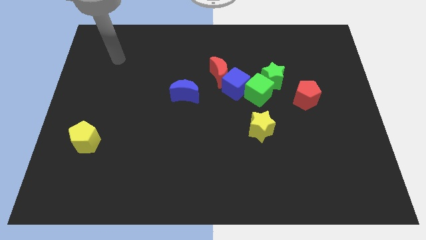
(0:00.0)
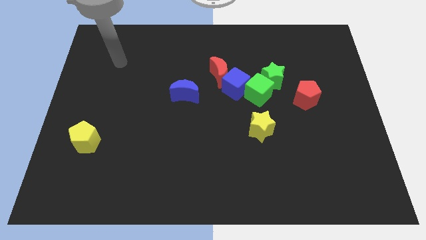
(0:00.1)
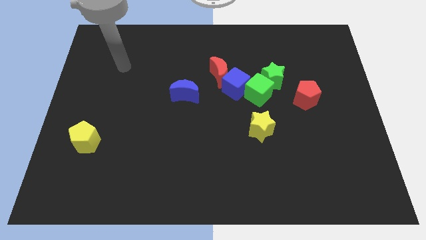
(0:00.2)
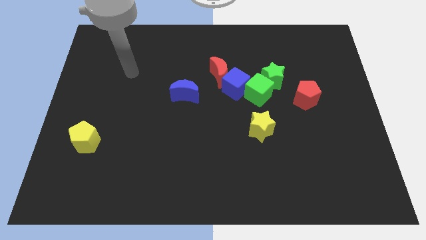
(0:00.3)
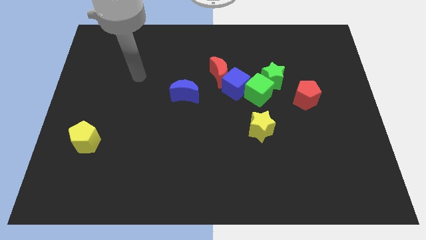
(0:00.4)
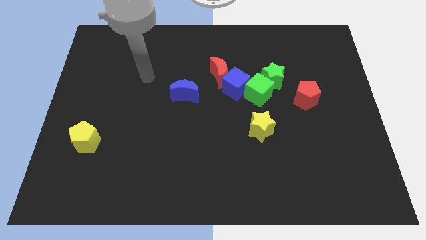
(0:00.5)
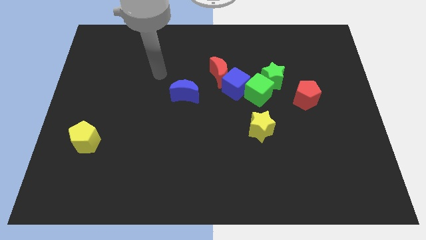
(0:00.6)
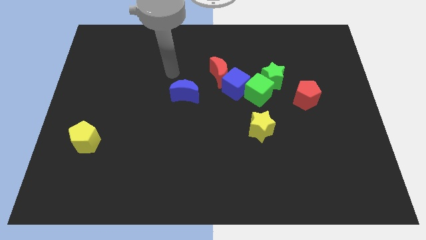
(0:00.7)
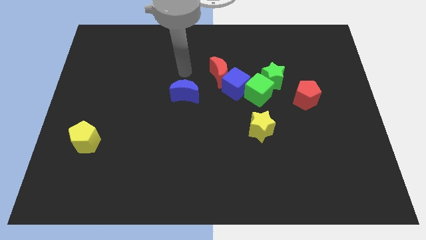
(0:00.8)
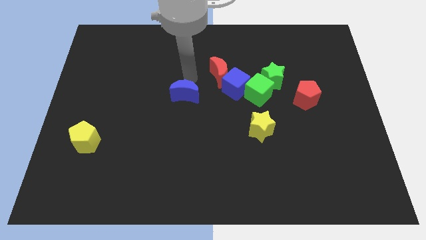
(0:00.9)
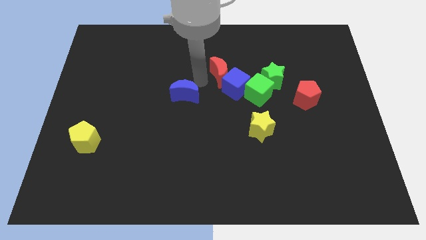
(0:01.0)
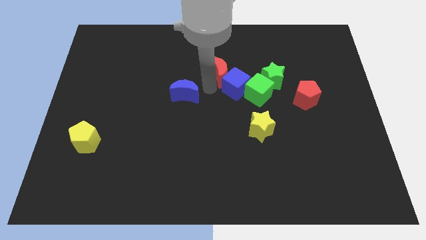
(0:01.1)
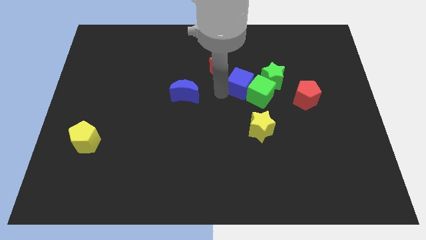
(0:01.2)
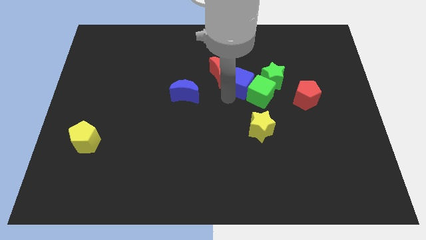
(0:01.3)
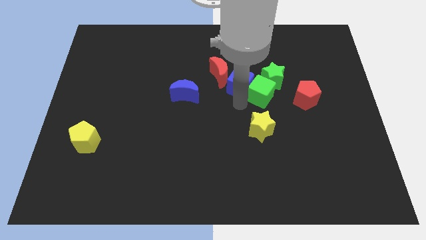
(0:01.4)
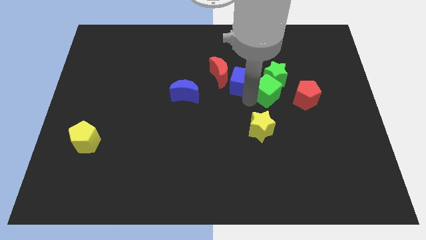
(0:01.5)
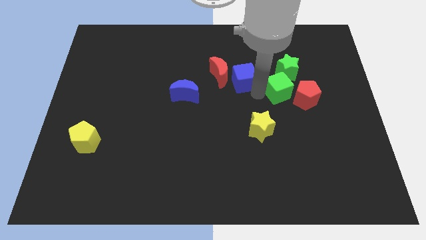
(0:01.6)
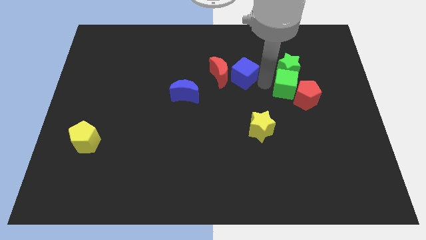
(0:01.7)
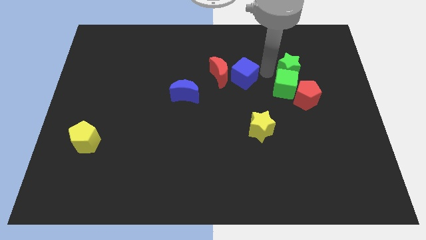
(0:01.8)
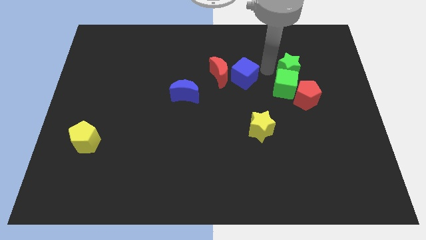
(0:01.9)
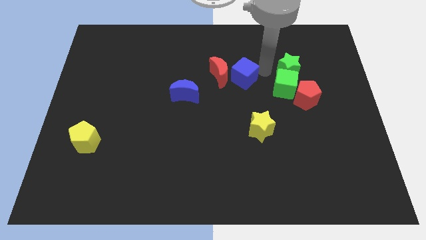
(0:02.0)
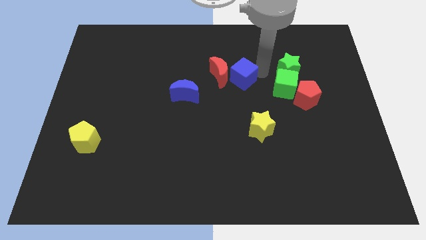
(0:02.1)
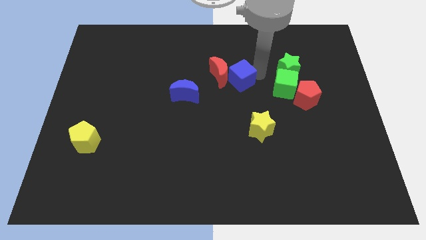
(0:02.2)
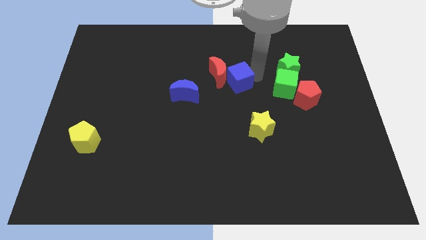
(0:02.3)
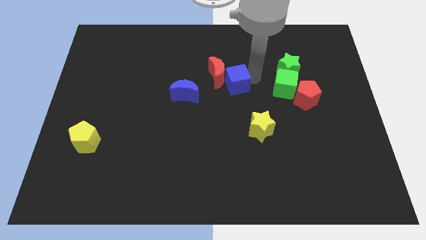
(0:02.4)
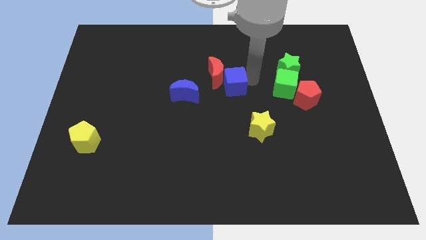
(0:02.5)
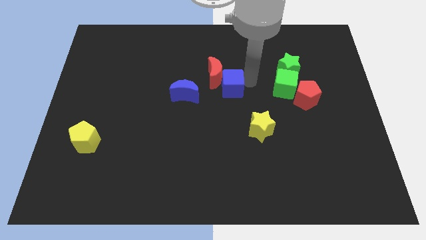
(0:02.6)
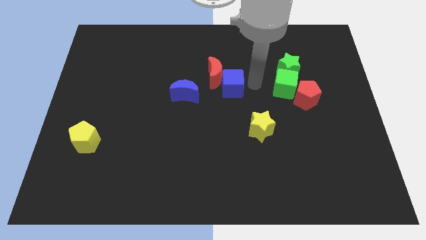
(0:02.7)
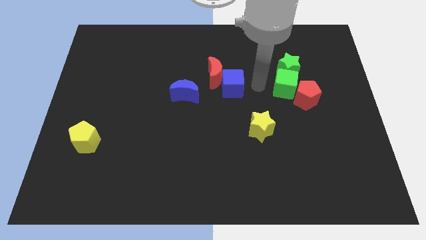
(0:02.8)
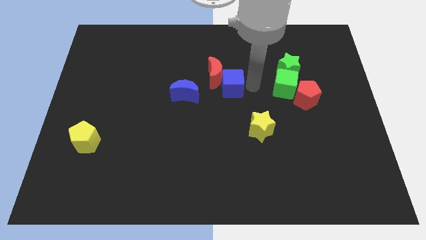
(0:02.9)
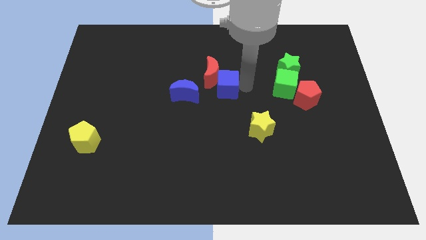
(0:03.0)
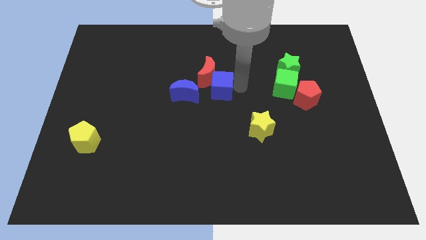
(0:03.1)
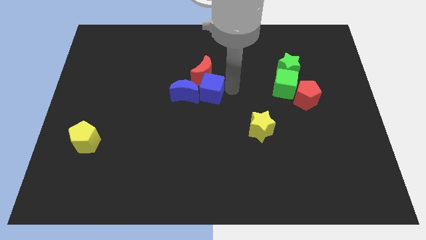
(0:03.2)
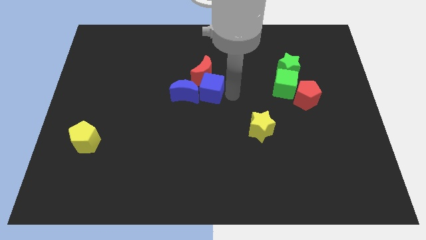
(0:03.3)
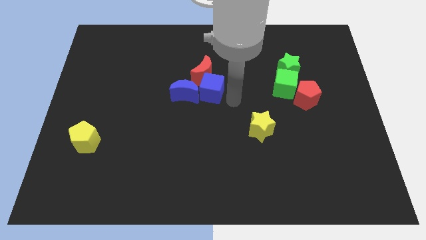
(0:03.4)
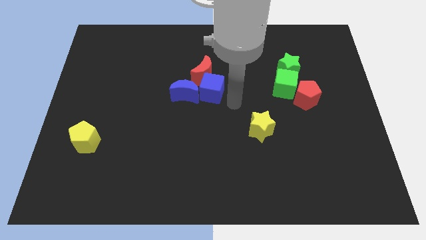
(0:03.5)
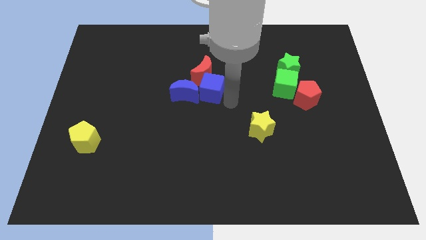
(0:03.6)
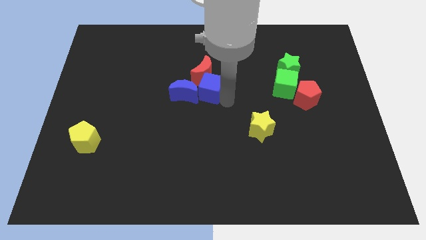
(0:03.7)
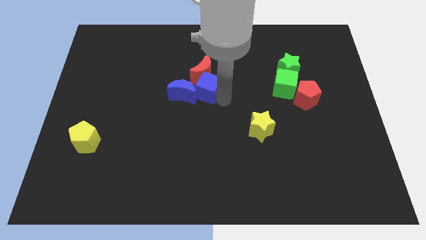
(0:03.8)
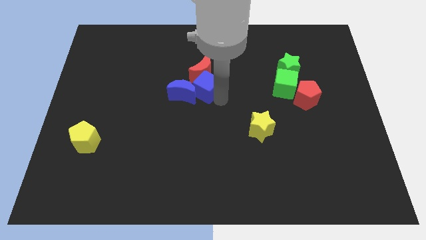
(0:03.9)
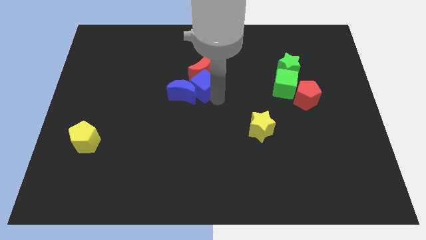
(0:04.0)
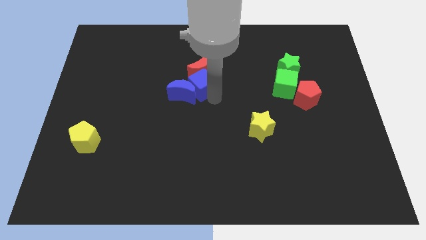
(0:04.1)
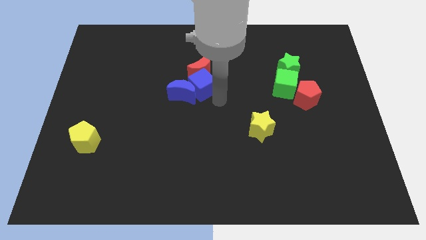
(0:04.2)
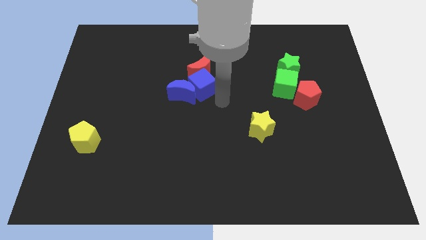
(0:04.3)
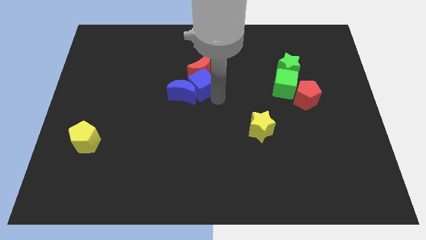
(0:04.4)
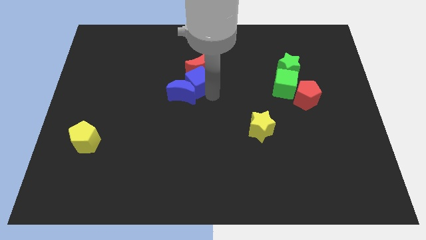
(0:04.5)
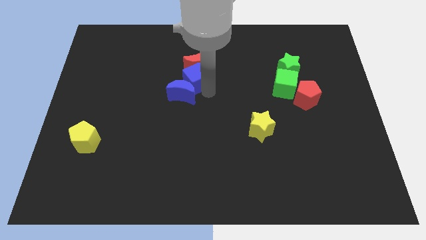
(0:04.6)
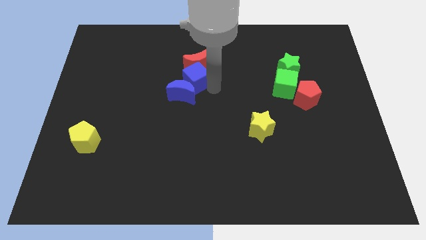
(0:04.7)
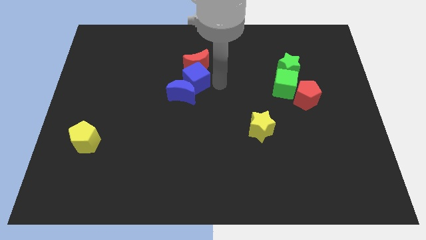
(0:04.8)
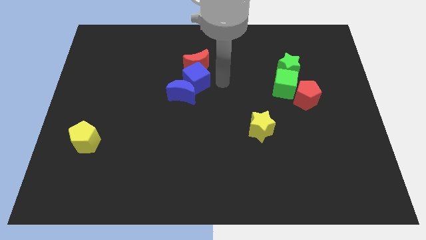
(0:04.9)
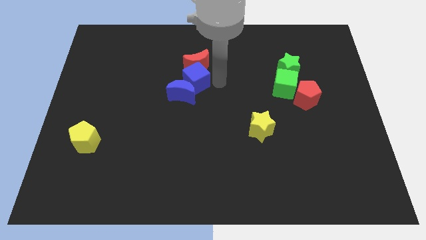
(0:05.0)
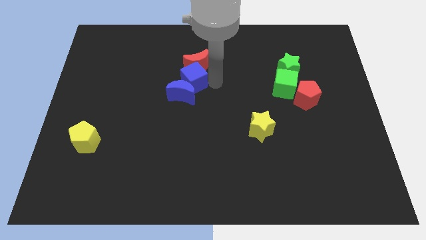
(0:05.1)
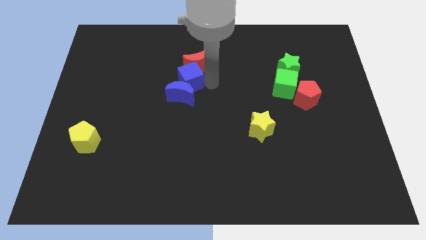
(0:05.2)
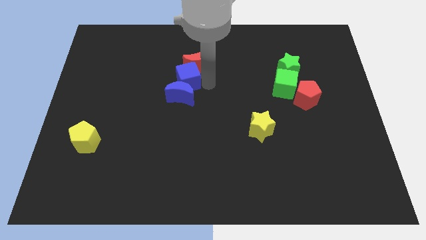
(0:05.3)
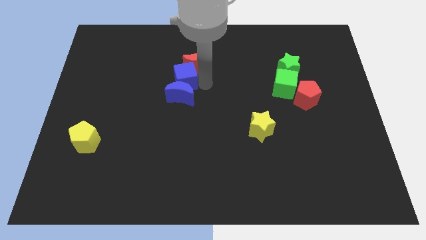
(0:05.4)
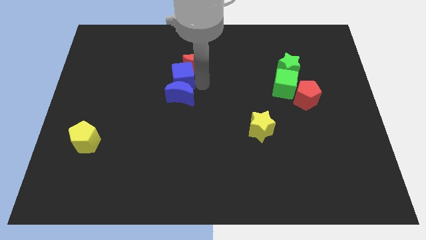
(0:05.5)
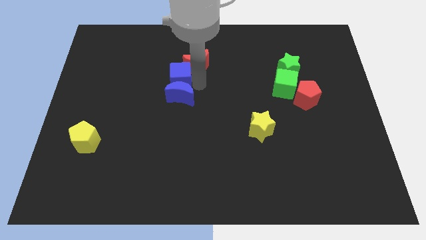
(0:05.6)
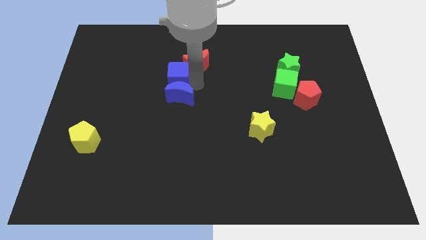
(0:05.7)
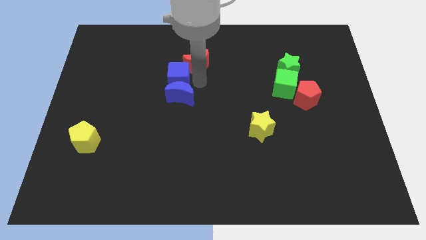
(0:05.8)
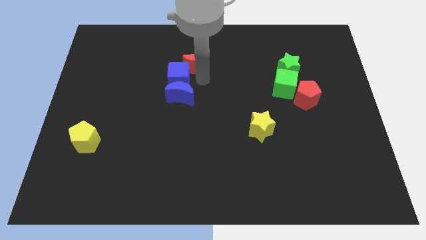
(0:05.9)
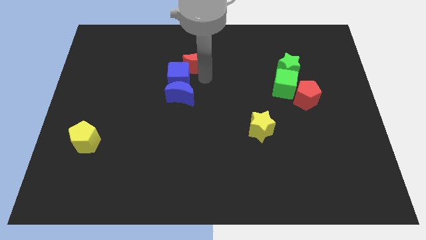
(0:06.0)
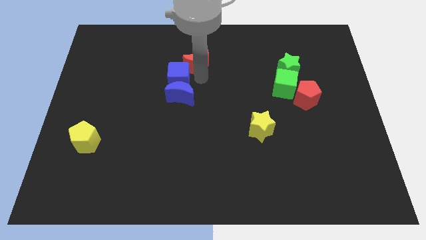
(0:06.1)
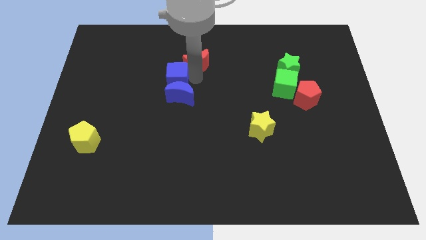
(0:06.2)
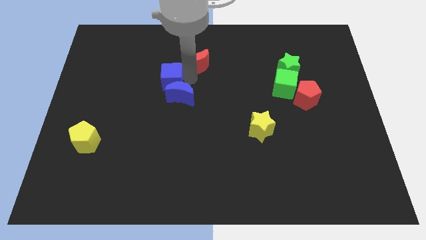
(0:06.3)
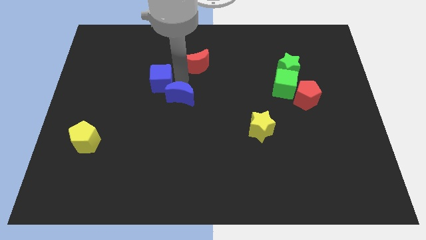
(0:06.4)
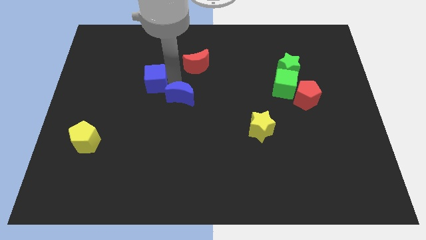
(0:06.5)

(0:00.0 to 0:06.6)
slide the blue cube to the left

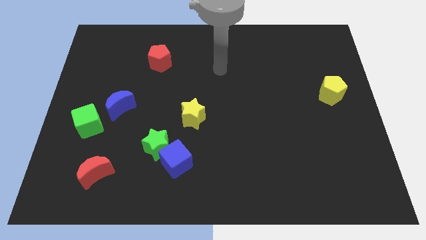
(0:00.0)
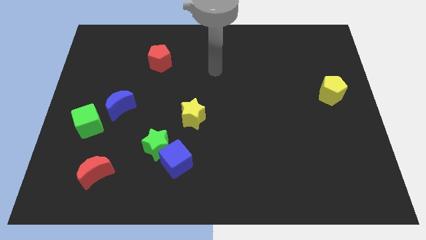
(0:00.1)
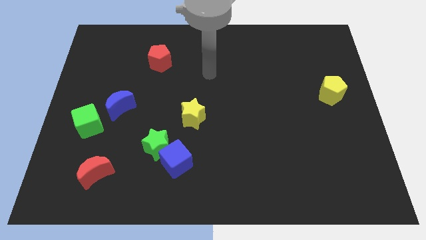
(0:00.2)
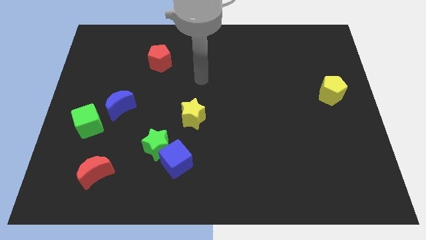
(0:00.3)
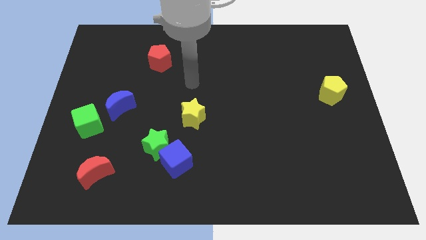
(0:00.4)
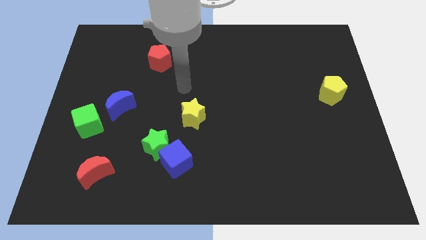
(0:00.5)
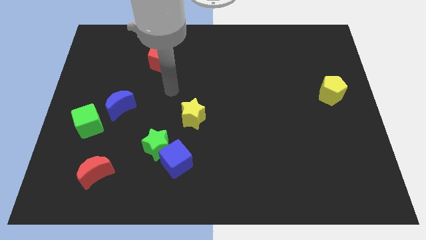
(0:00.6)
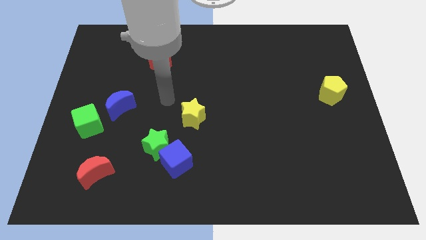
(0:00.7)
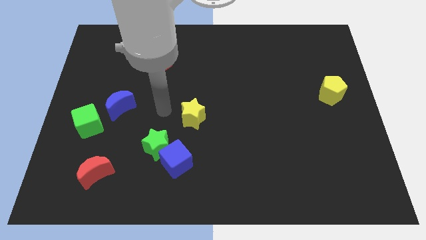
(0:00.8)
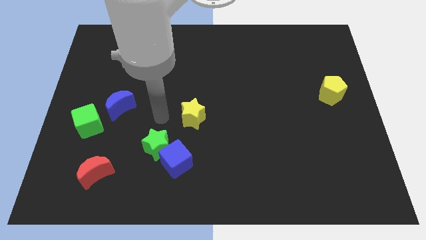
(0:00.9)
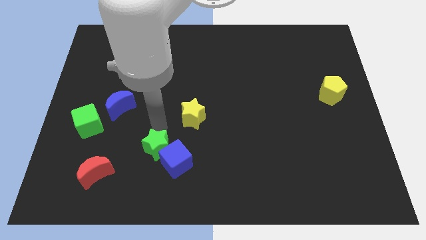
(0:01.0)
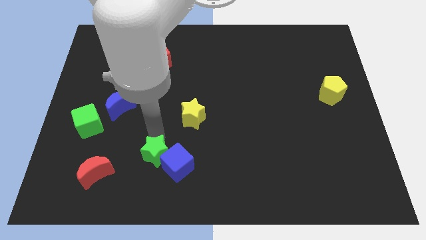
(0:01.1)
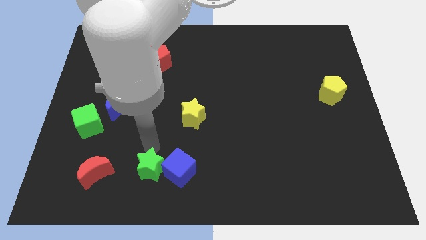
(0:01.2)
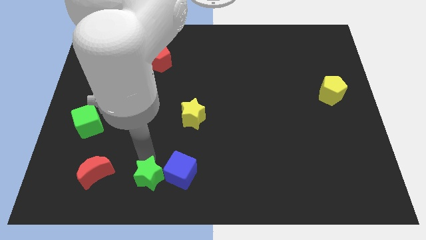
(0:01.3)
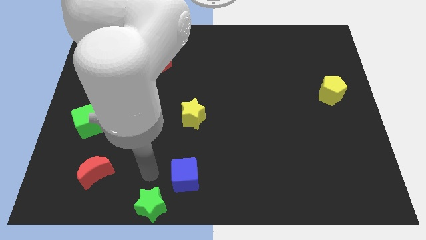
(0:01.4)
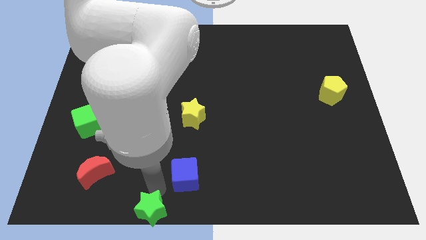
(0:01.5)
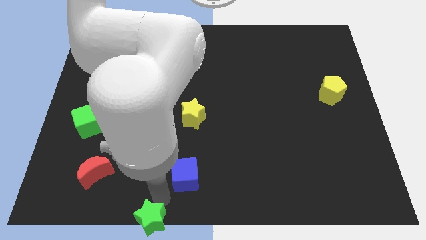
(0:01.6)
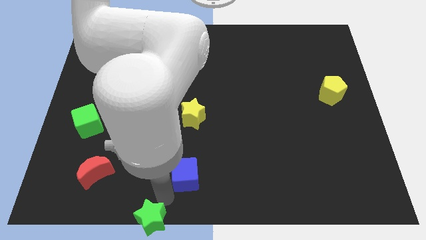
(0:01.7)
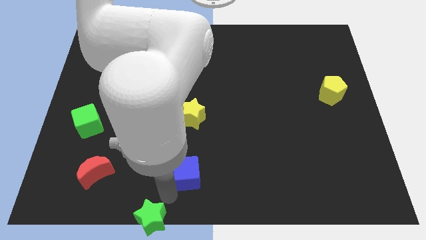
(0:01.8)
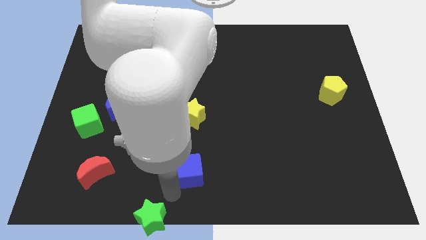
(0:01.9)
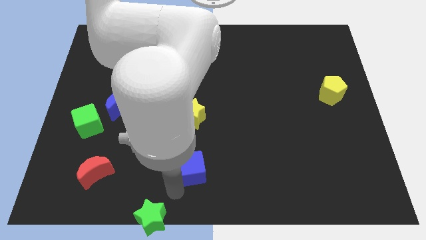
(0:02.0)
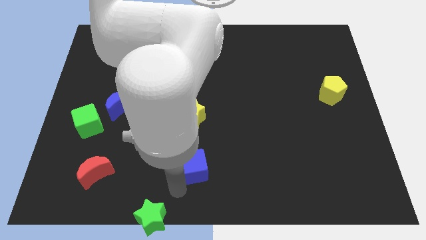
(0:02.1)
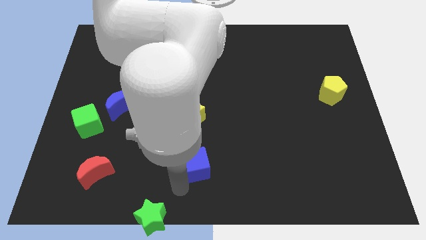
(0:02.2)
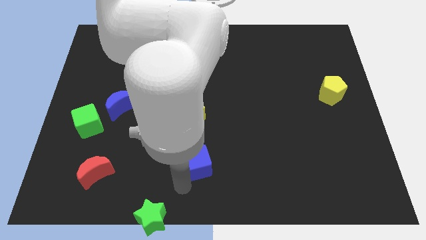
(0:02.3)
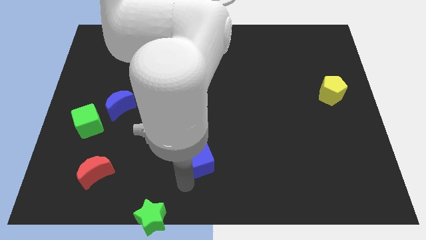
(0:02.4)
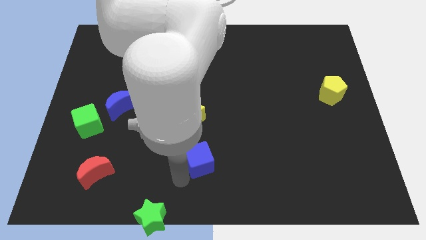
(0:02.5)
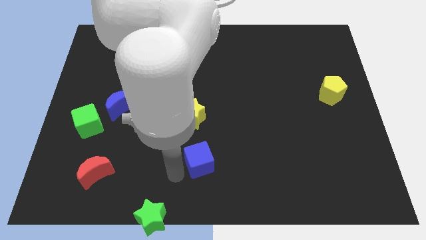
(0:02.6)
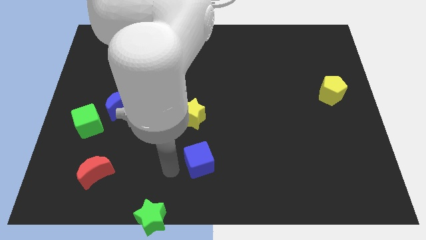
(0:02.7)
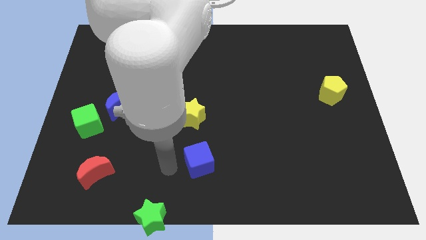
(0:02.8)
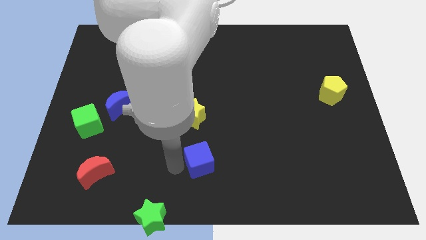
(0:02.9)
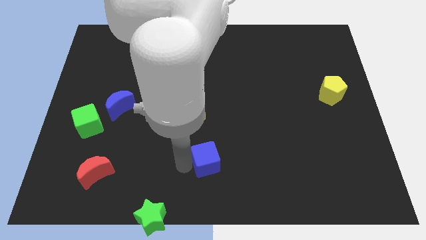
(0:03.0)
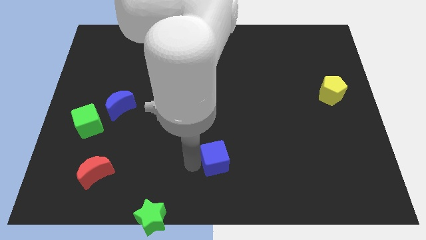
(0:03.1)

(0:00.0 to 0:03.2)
slightly move the blue cube right
